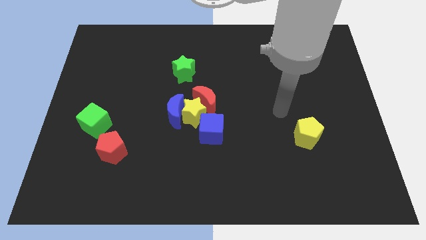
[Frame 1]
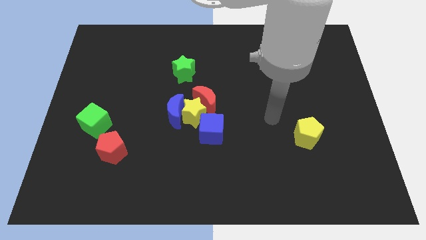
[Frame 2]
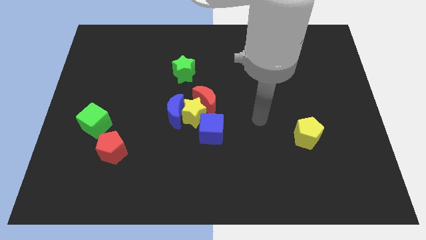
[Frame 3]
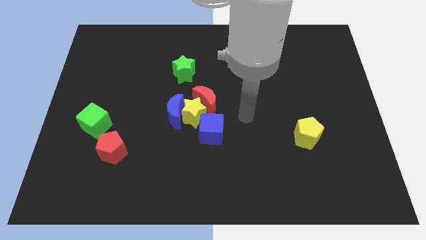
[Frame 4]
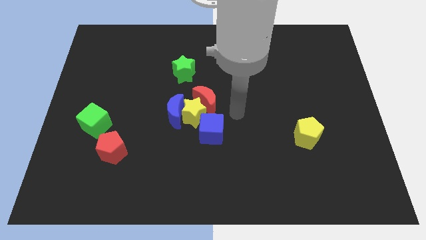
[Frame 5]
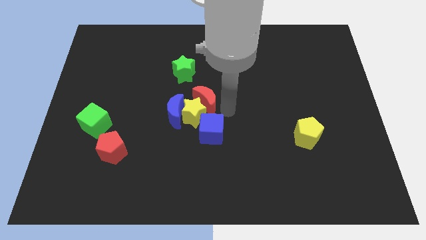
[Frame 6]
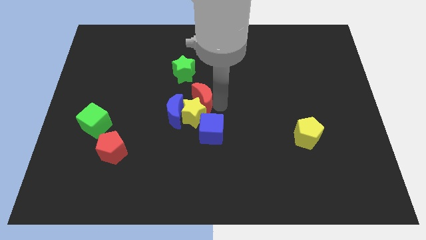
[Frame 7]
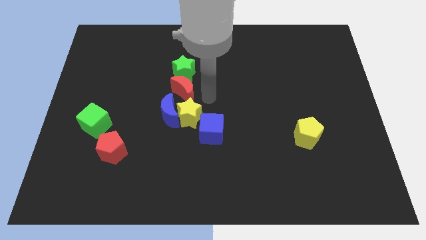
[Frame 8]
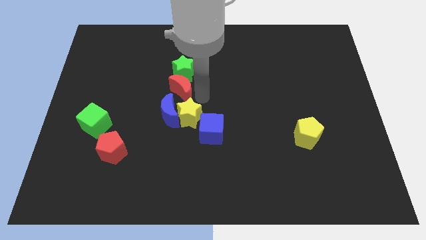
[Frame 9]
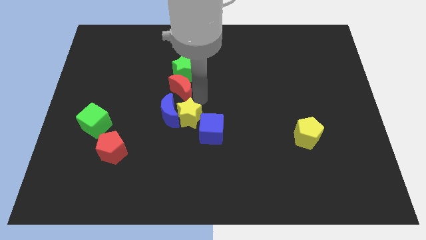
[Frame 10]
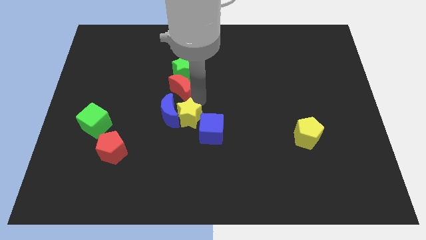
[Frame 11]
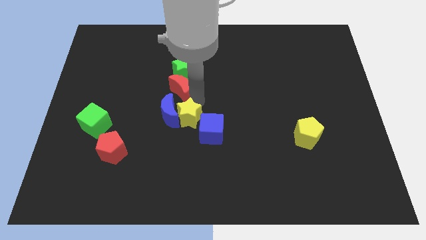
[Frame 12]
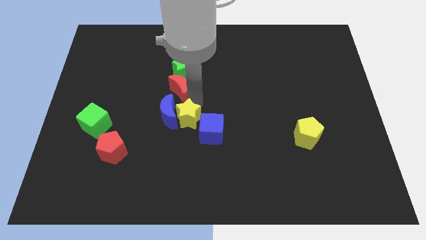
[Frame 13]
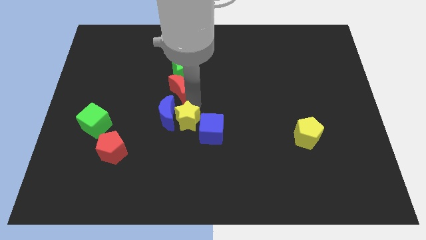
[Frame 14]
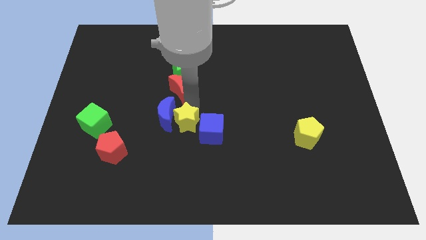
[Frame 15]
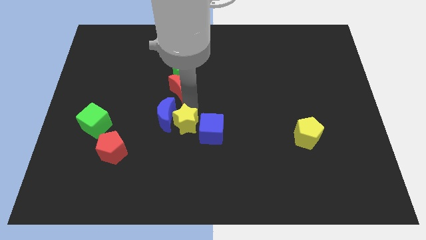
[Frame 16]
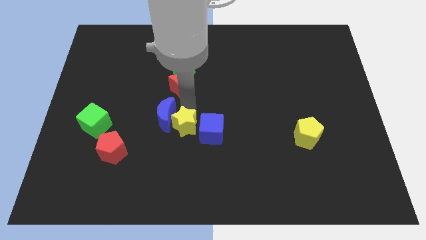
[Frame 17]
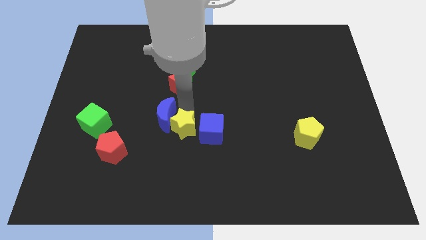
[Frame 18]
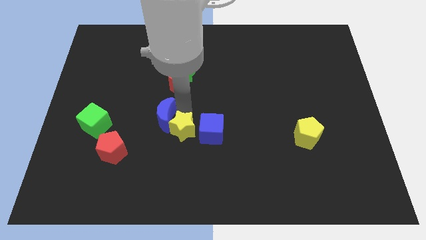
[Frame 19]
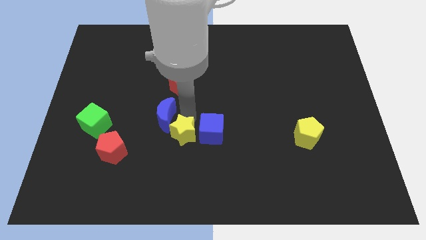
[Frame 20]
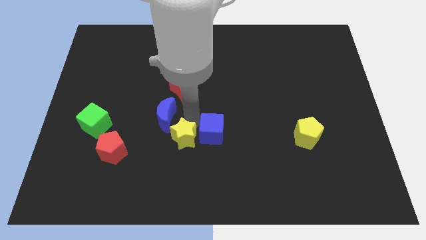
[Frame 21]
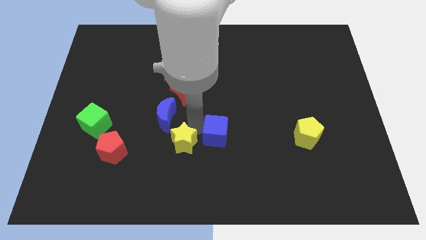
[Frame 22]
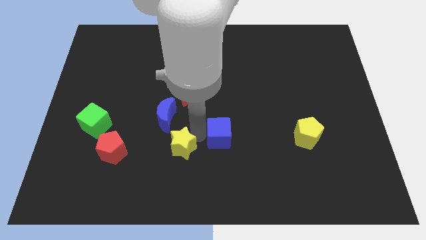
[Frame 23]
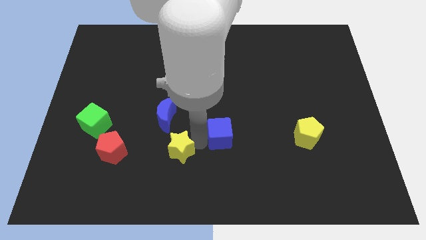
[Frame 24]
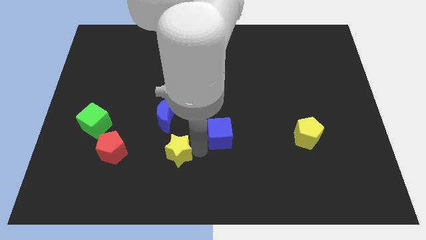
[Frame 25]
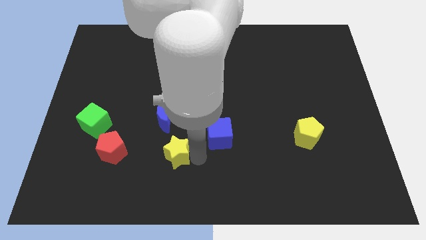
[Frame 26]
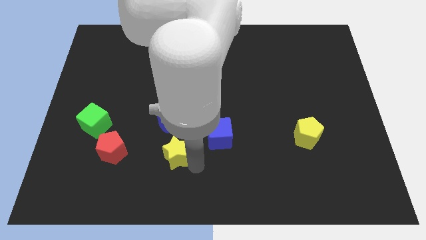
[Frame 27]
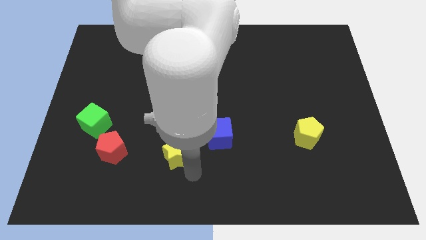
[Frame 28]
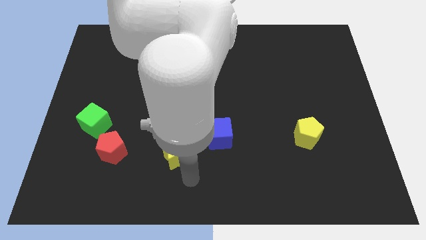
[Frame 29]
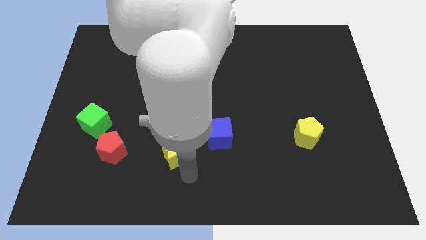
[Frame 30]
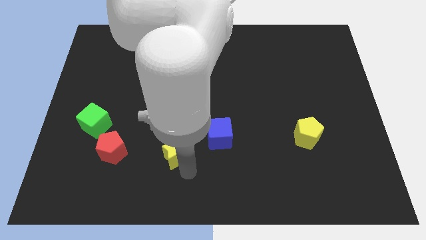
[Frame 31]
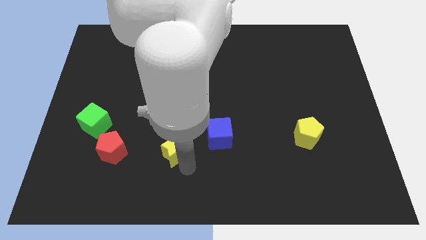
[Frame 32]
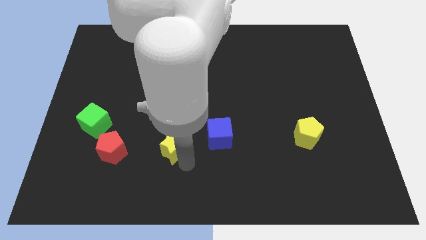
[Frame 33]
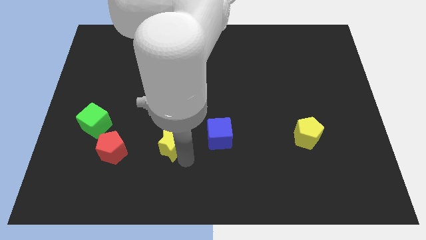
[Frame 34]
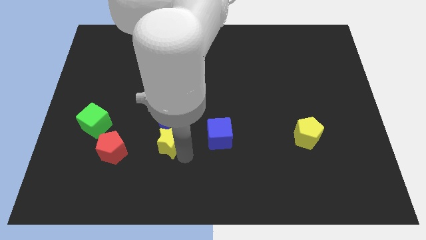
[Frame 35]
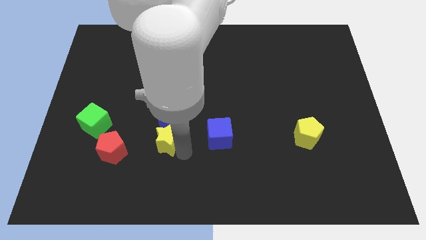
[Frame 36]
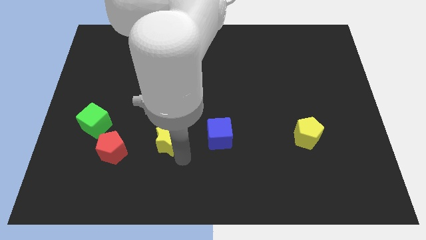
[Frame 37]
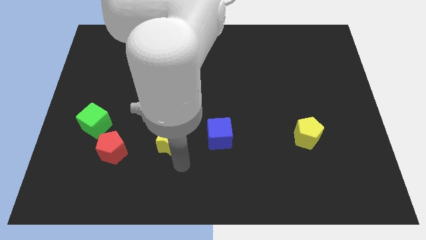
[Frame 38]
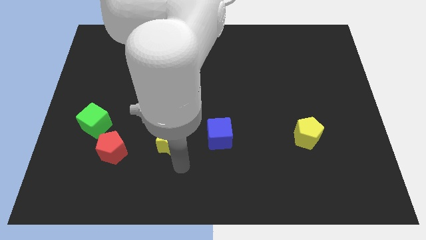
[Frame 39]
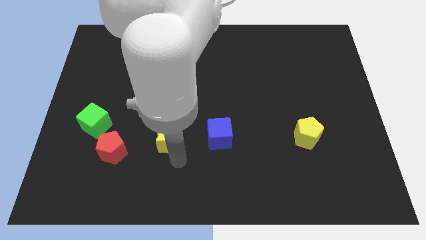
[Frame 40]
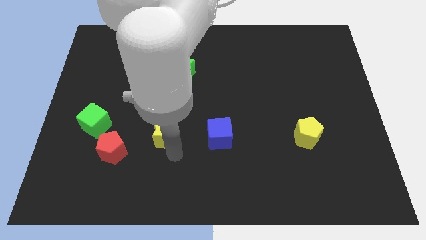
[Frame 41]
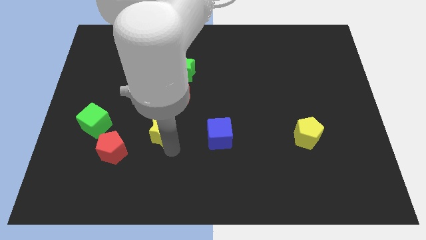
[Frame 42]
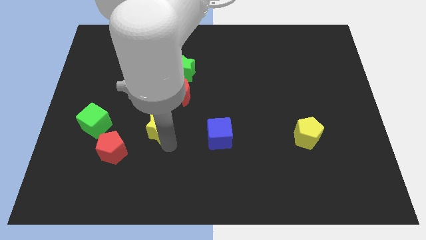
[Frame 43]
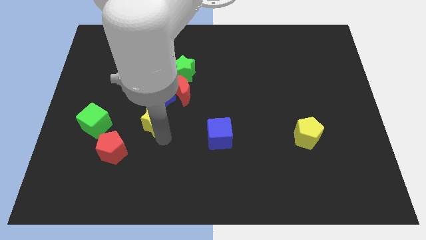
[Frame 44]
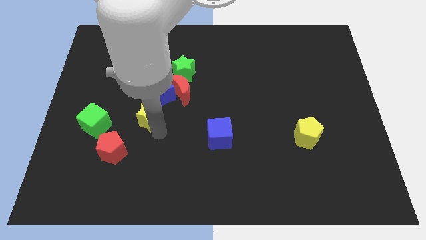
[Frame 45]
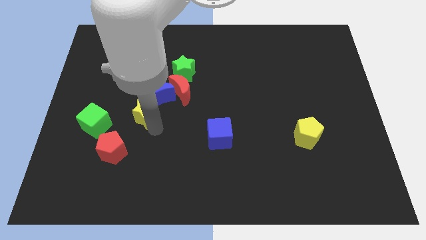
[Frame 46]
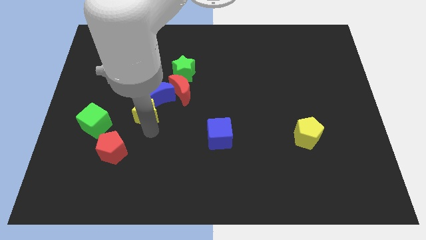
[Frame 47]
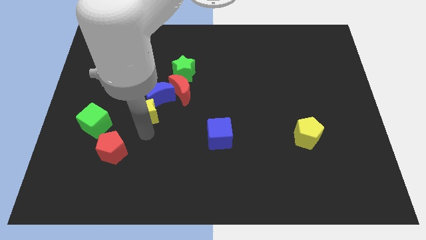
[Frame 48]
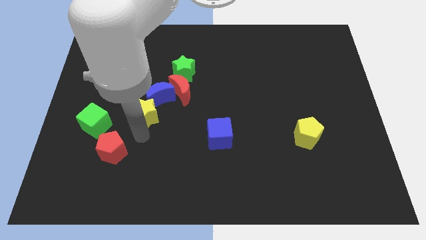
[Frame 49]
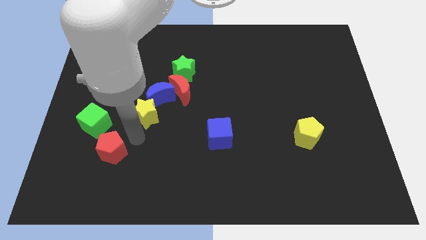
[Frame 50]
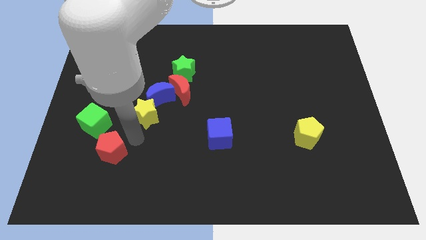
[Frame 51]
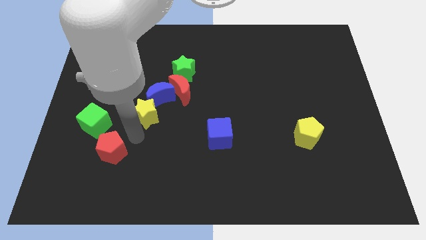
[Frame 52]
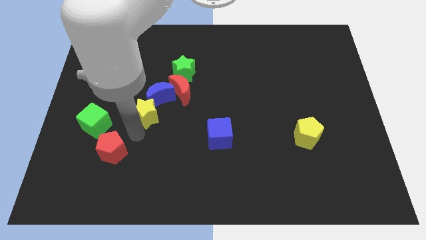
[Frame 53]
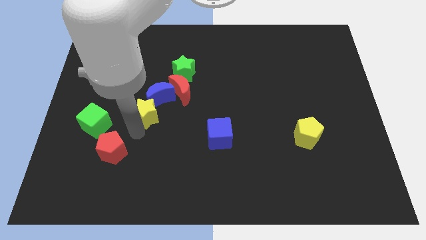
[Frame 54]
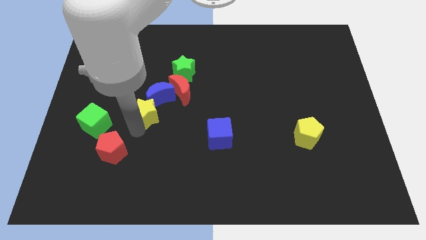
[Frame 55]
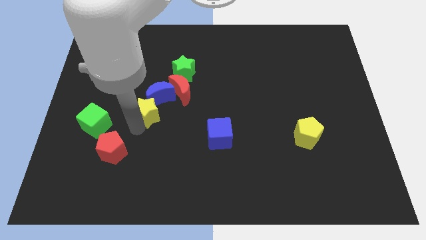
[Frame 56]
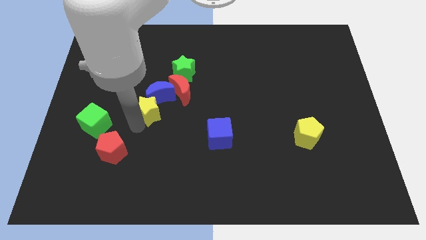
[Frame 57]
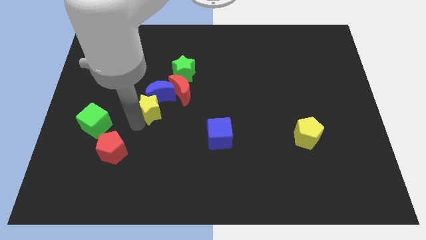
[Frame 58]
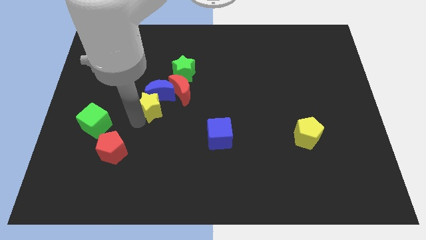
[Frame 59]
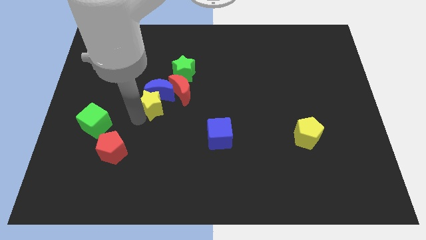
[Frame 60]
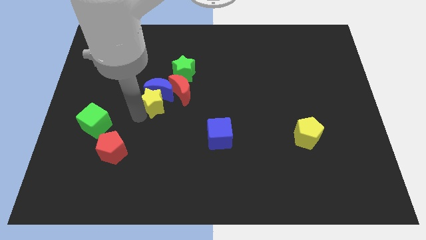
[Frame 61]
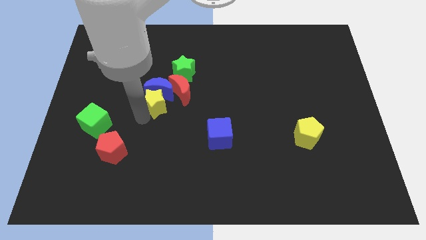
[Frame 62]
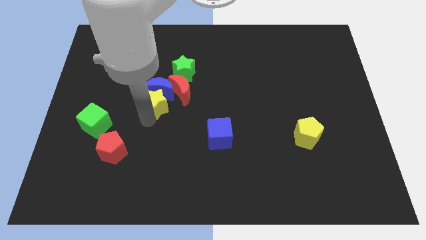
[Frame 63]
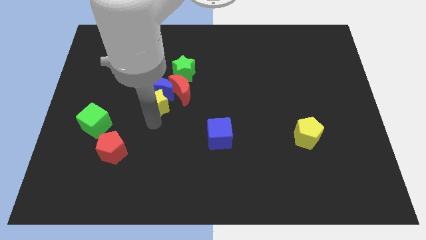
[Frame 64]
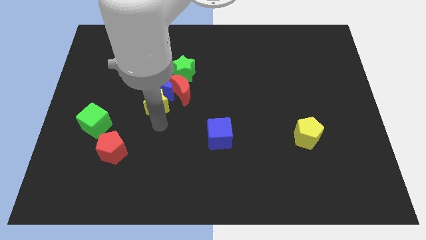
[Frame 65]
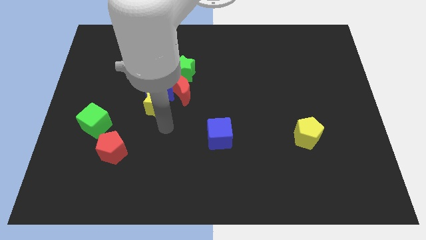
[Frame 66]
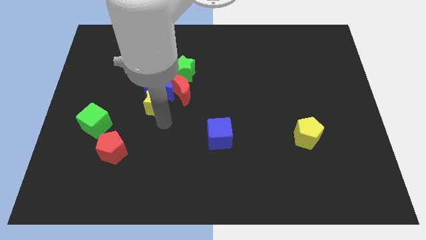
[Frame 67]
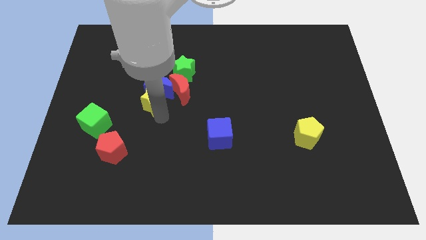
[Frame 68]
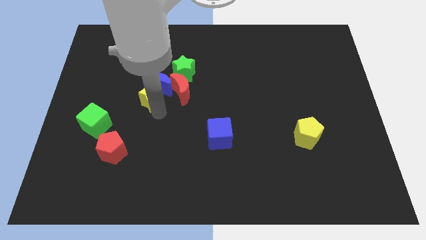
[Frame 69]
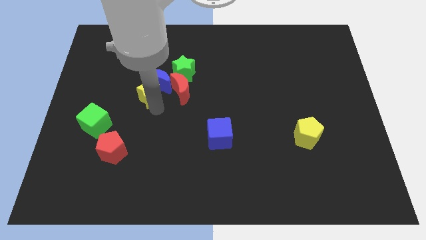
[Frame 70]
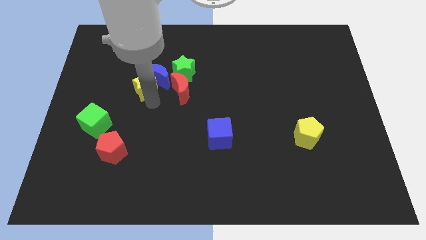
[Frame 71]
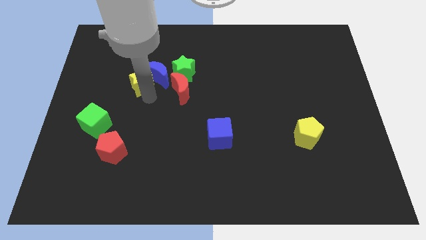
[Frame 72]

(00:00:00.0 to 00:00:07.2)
push the yellow star to the left side of the green star
